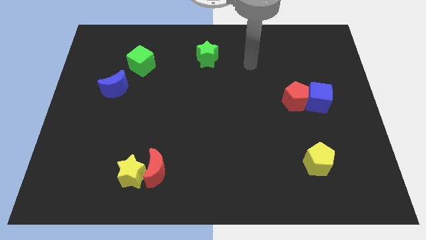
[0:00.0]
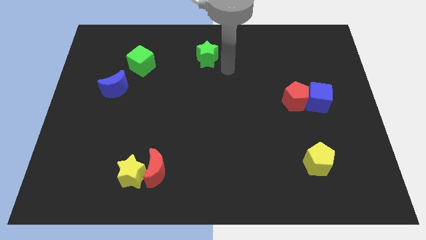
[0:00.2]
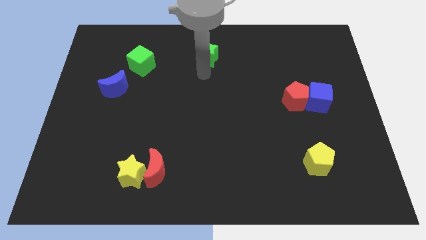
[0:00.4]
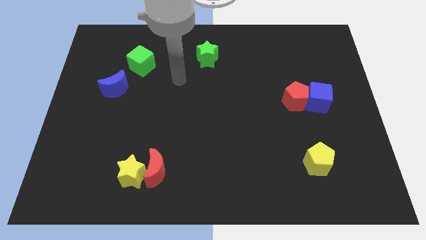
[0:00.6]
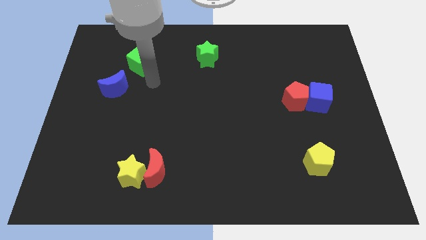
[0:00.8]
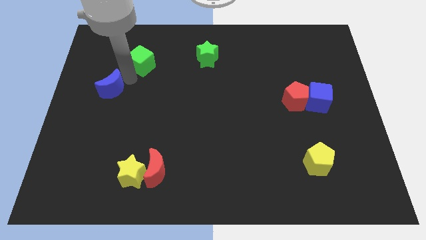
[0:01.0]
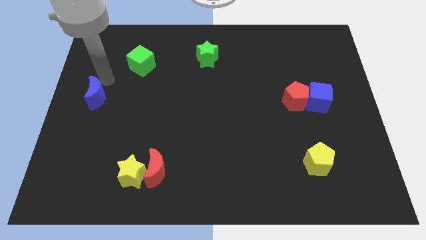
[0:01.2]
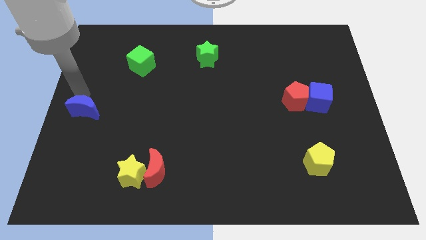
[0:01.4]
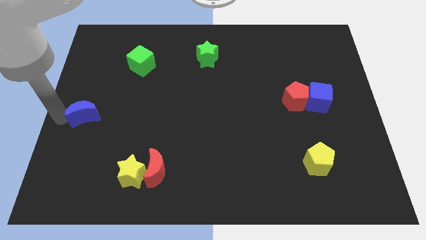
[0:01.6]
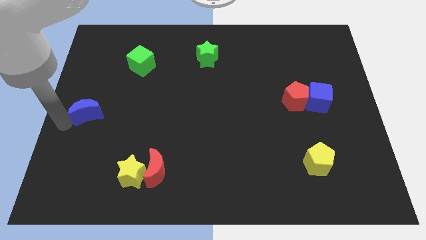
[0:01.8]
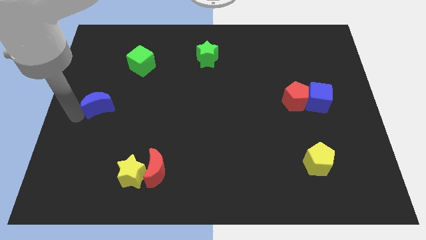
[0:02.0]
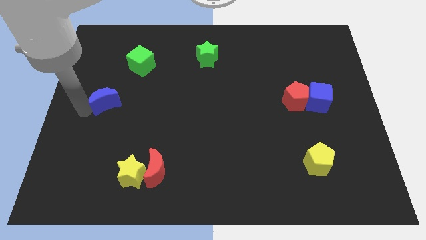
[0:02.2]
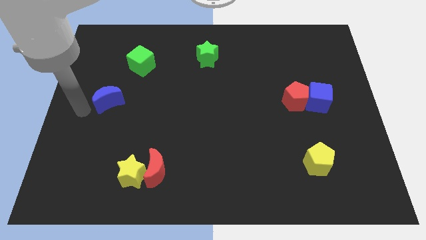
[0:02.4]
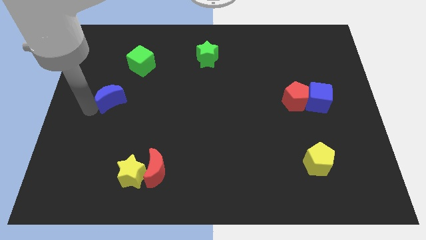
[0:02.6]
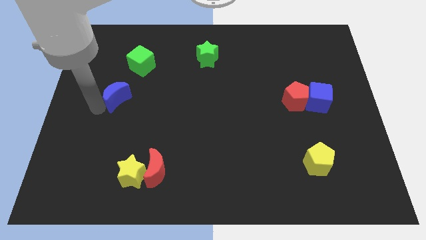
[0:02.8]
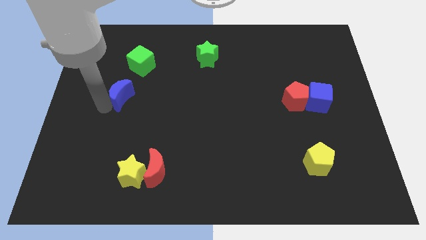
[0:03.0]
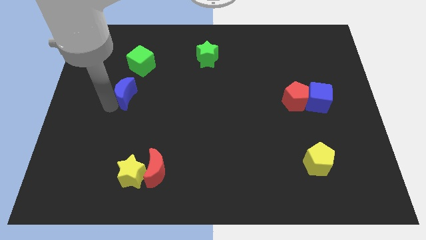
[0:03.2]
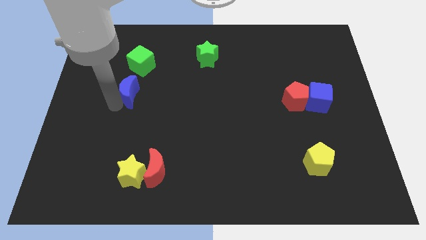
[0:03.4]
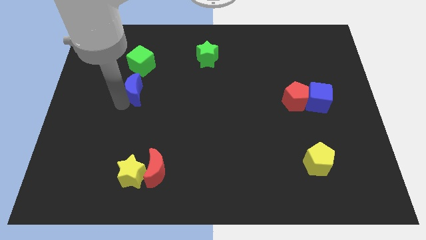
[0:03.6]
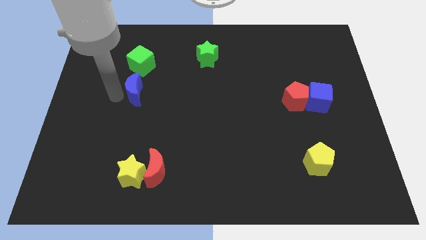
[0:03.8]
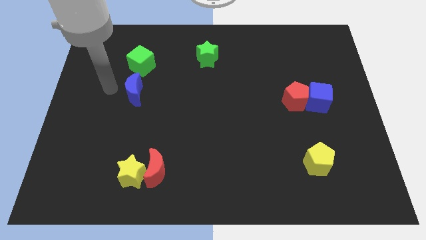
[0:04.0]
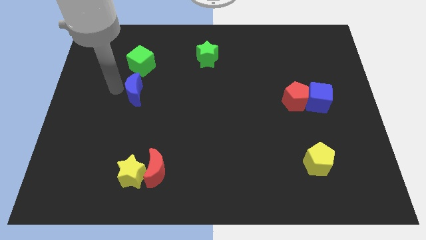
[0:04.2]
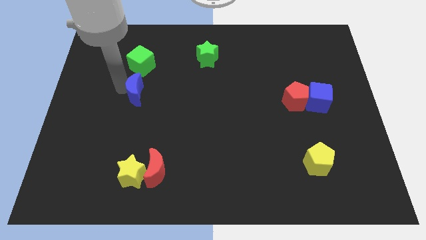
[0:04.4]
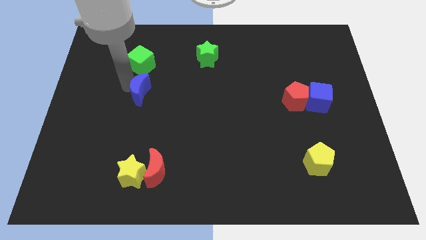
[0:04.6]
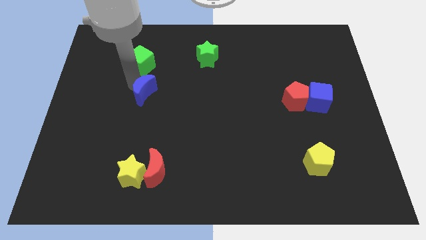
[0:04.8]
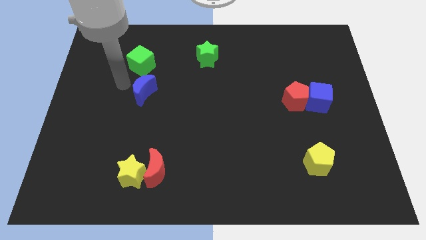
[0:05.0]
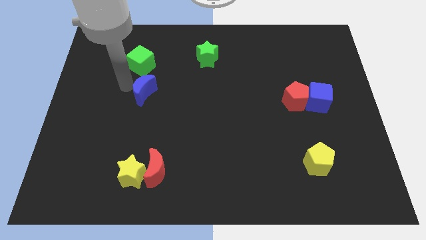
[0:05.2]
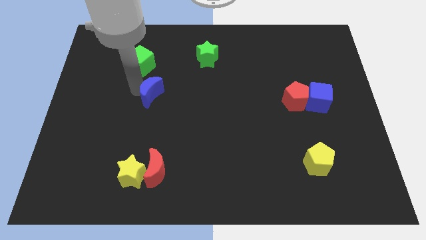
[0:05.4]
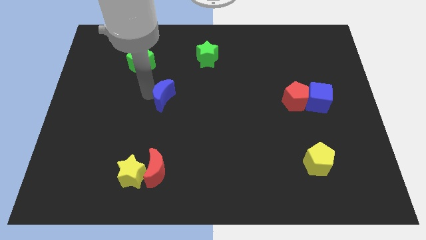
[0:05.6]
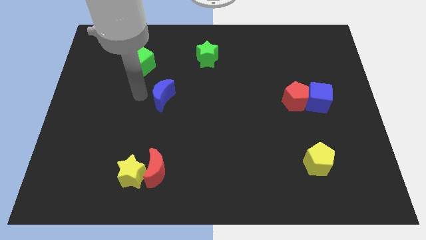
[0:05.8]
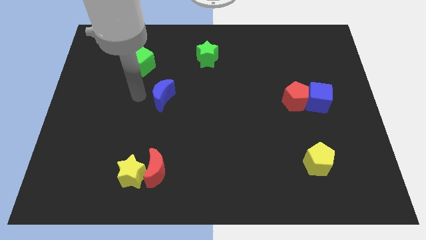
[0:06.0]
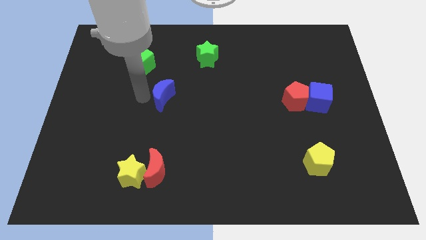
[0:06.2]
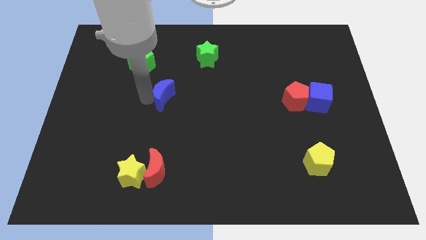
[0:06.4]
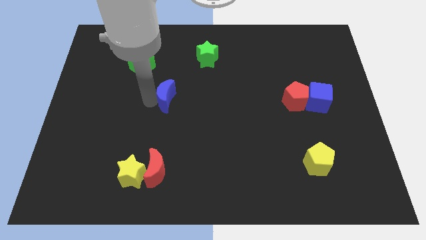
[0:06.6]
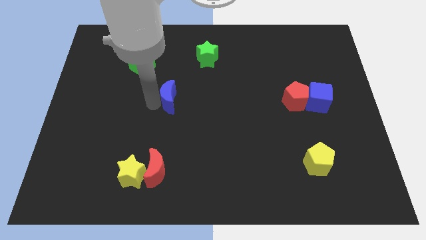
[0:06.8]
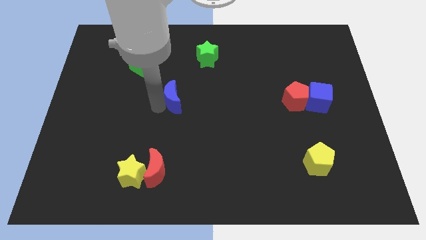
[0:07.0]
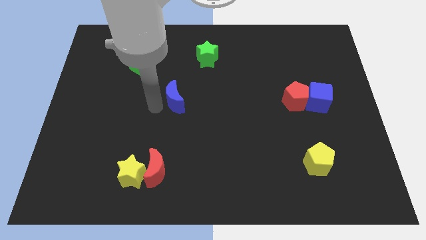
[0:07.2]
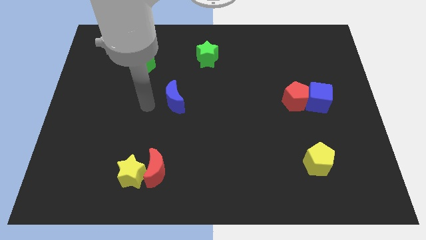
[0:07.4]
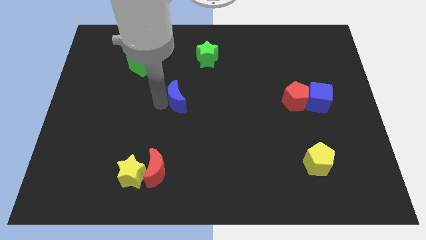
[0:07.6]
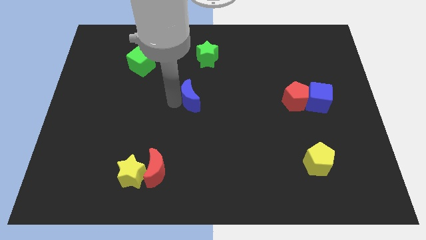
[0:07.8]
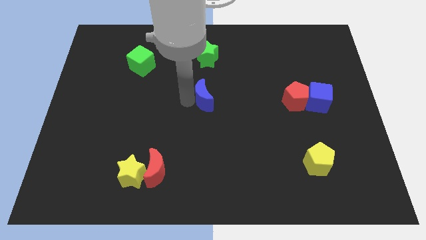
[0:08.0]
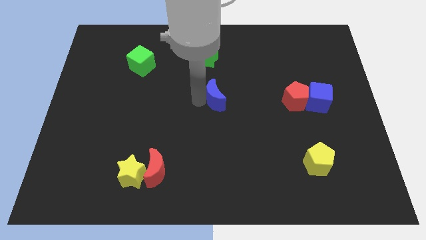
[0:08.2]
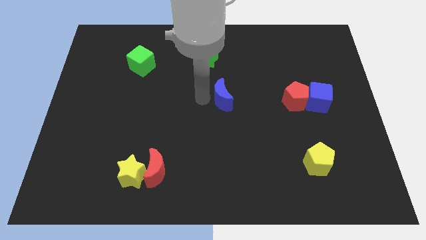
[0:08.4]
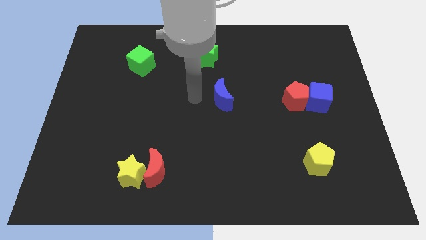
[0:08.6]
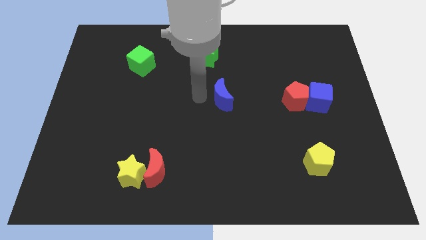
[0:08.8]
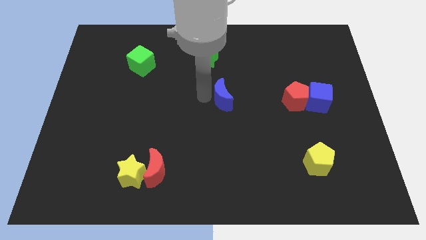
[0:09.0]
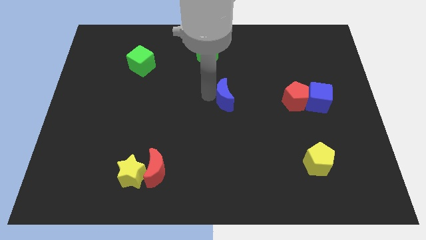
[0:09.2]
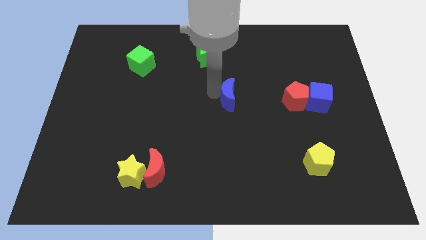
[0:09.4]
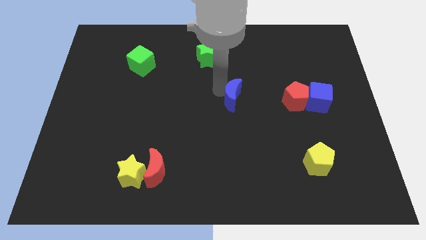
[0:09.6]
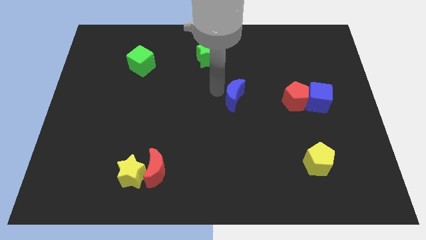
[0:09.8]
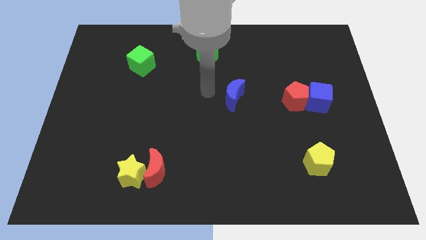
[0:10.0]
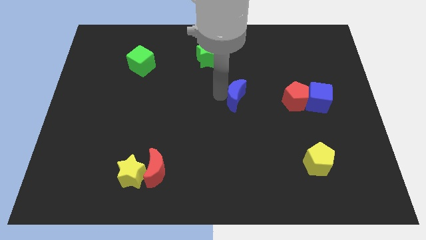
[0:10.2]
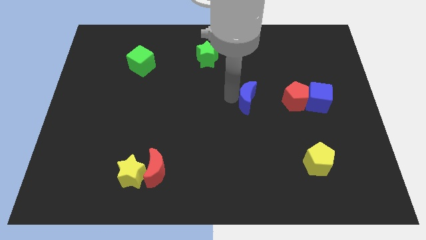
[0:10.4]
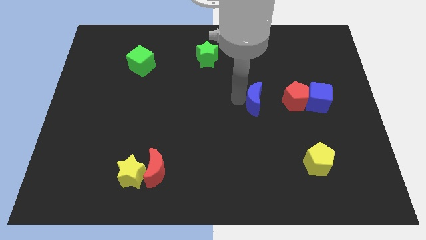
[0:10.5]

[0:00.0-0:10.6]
slide the blue moon to the left side of the blue cube

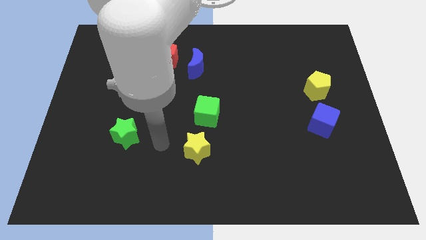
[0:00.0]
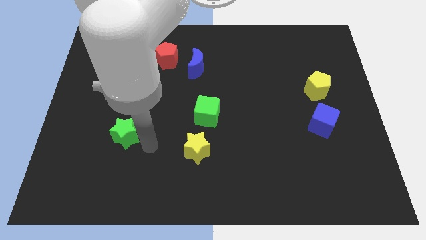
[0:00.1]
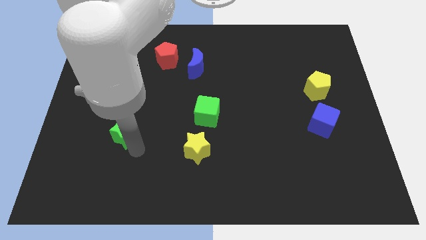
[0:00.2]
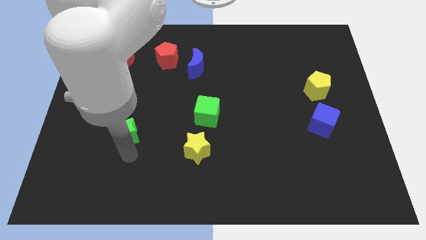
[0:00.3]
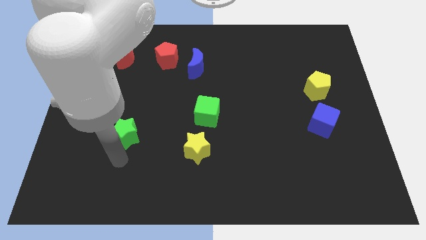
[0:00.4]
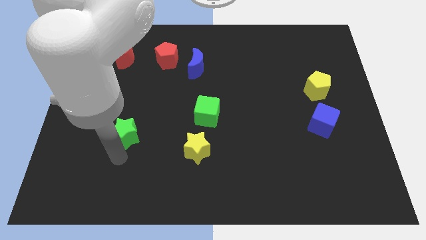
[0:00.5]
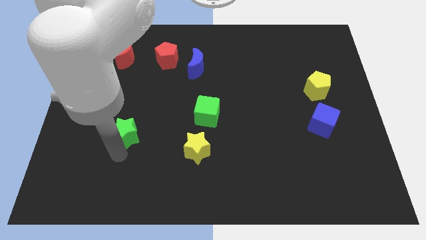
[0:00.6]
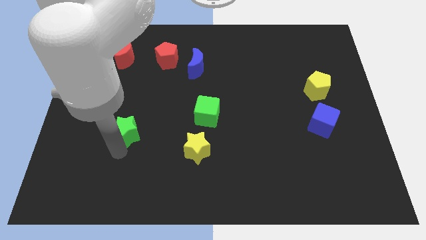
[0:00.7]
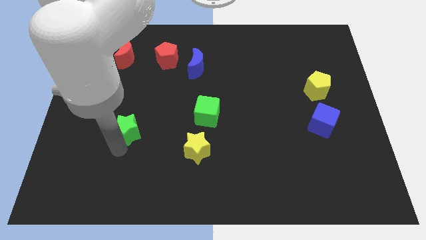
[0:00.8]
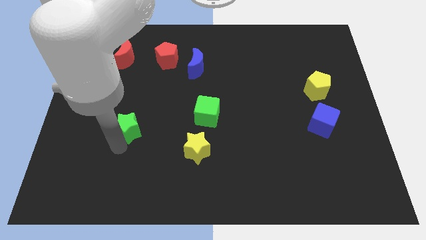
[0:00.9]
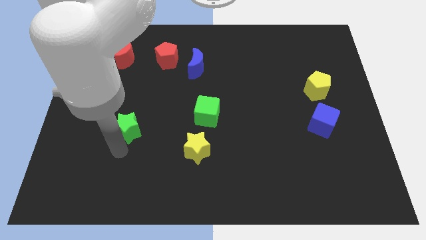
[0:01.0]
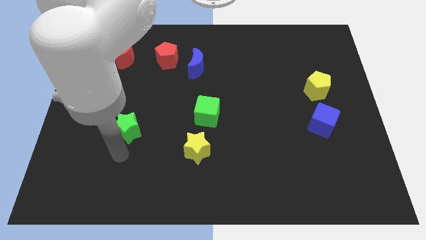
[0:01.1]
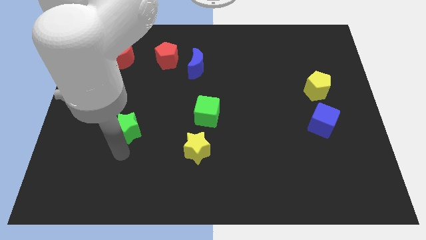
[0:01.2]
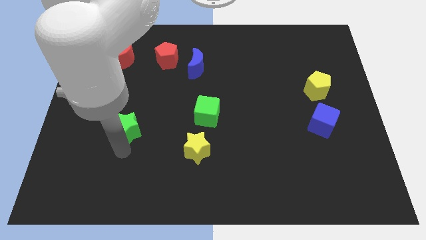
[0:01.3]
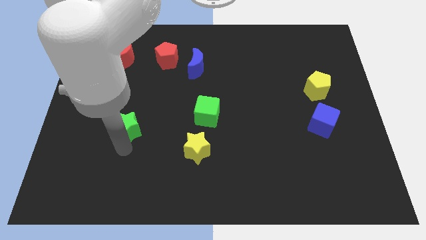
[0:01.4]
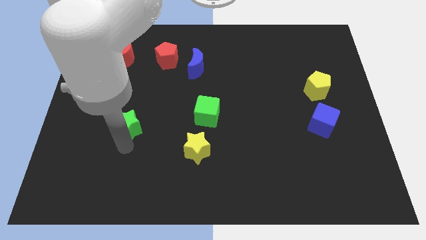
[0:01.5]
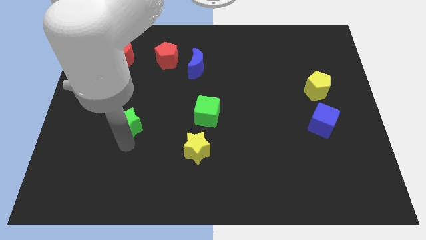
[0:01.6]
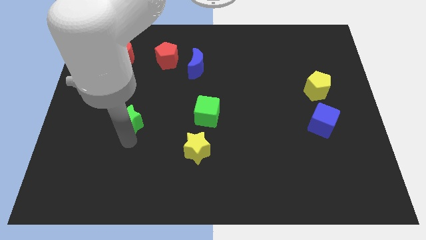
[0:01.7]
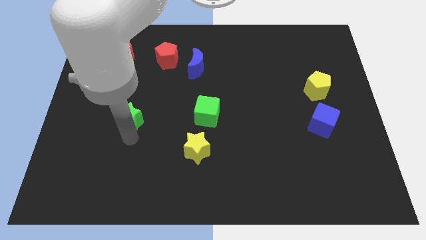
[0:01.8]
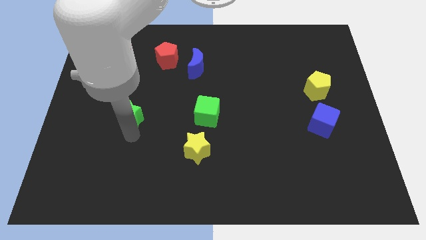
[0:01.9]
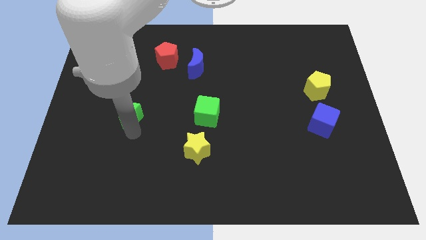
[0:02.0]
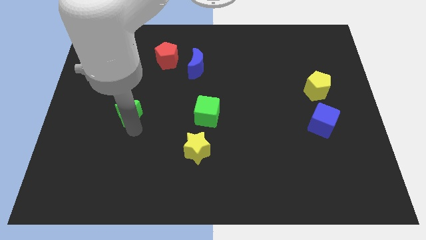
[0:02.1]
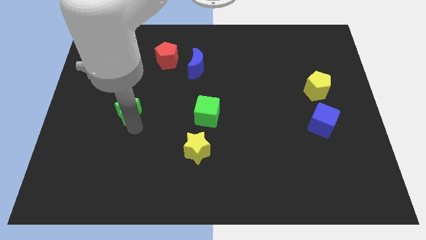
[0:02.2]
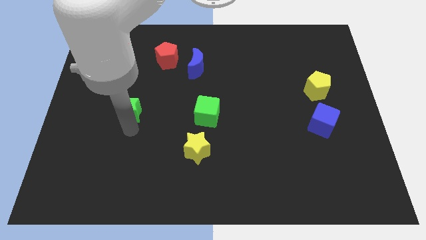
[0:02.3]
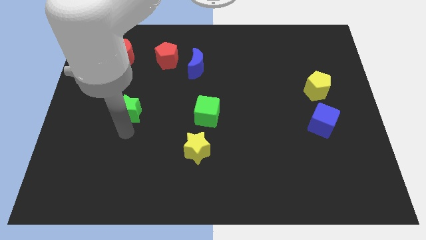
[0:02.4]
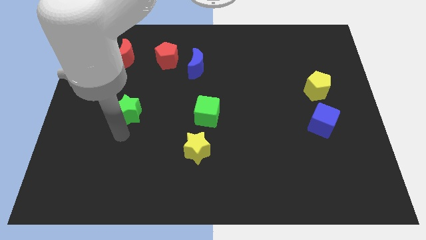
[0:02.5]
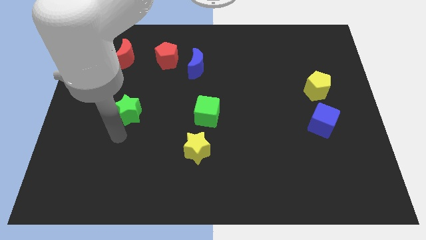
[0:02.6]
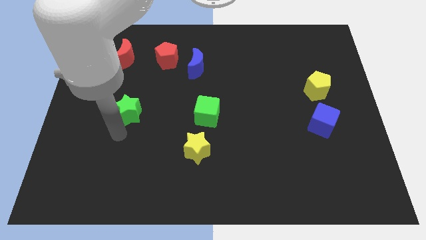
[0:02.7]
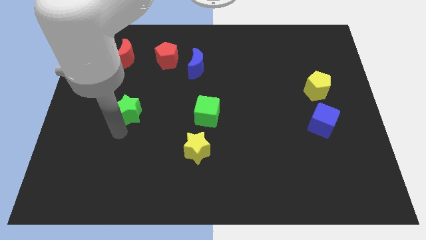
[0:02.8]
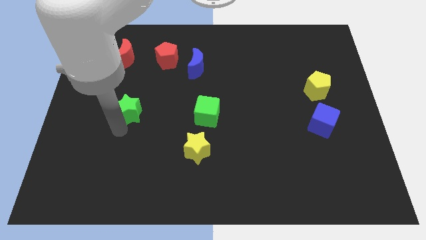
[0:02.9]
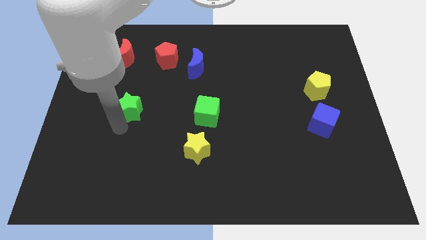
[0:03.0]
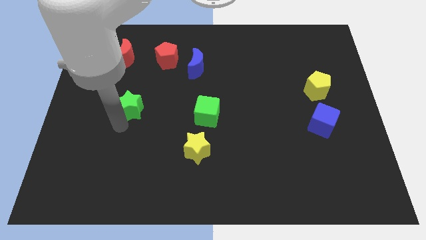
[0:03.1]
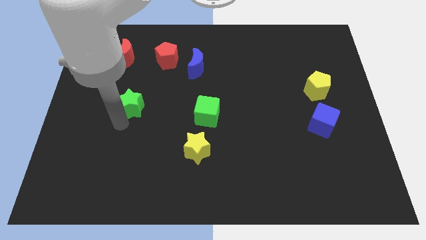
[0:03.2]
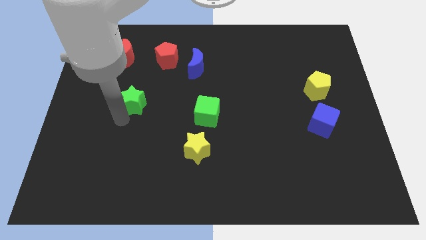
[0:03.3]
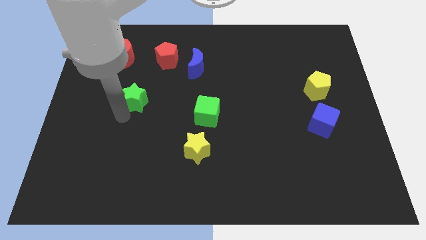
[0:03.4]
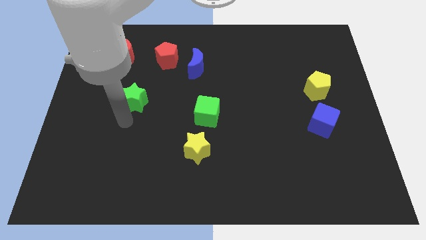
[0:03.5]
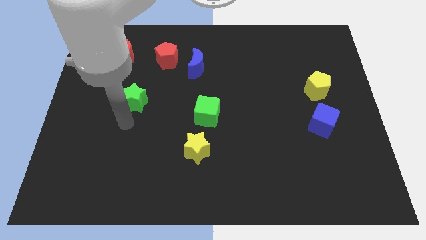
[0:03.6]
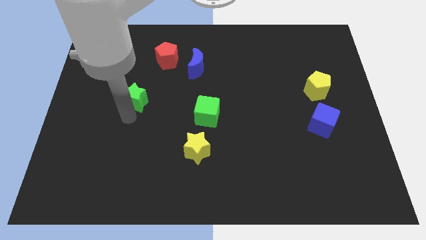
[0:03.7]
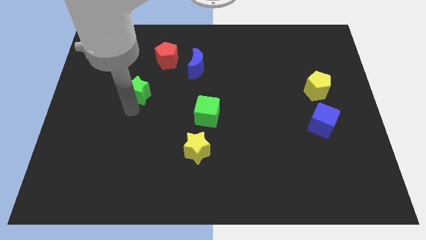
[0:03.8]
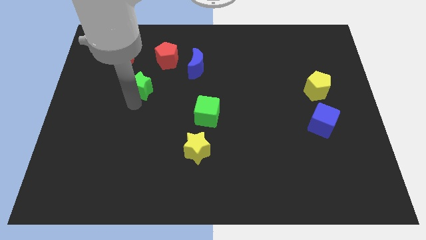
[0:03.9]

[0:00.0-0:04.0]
push the green star to the bottom left side of the red pentagon
